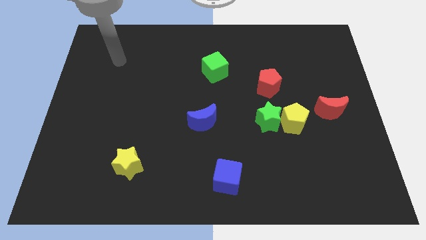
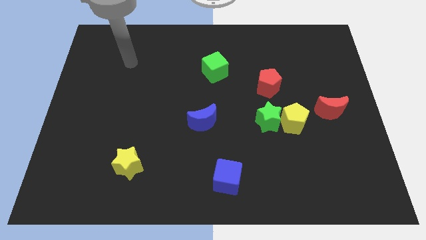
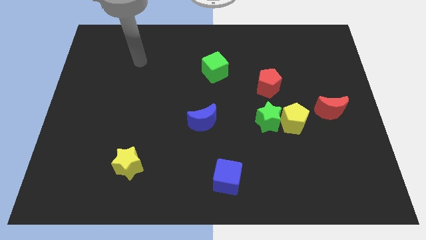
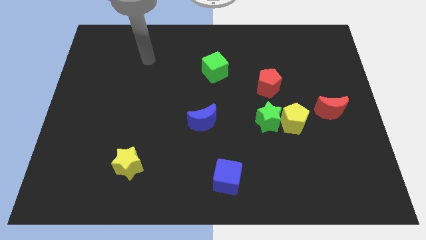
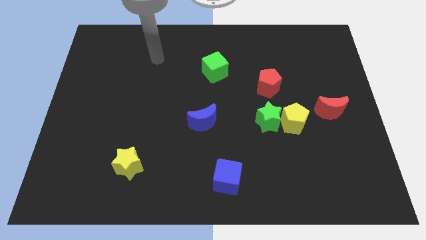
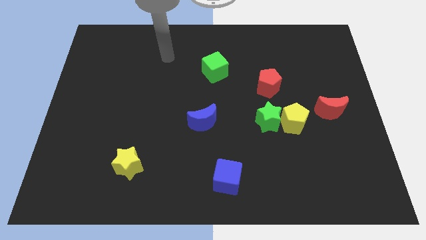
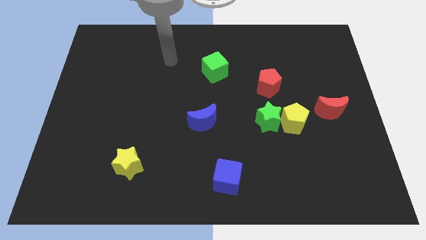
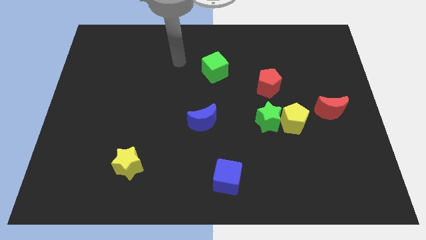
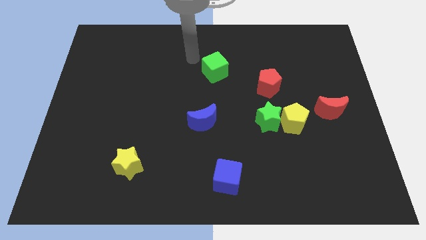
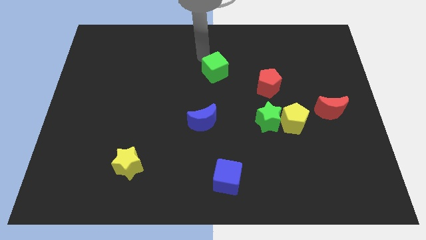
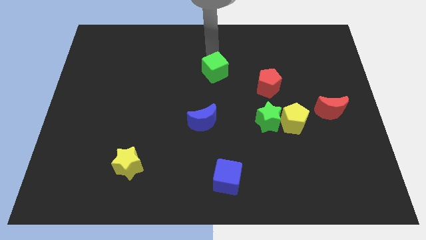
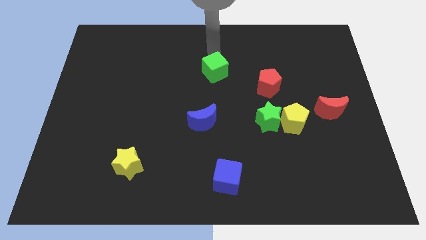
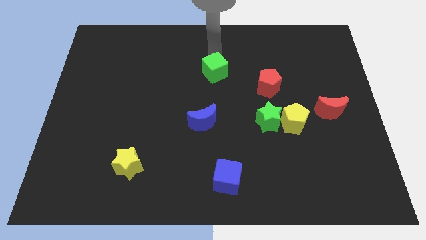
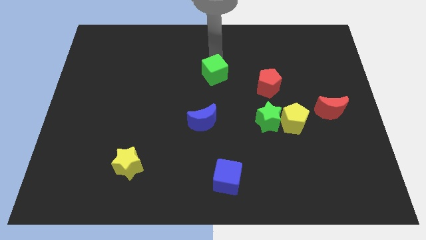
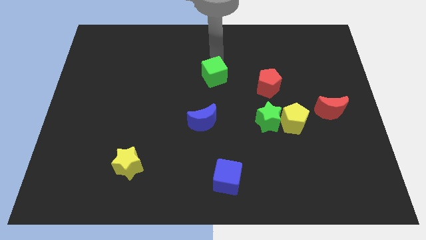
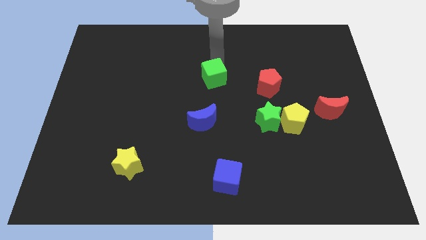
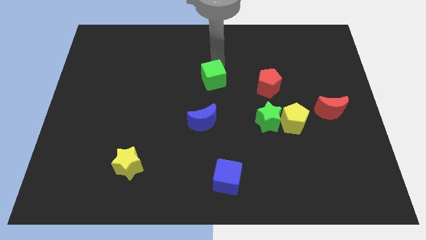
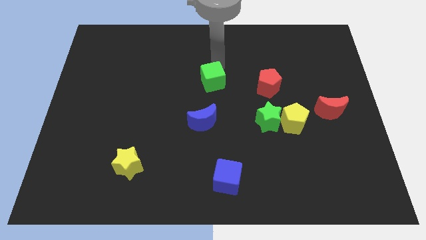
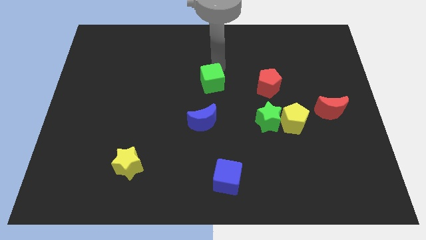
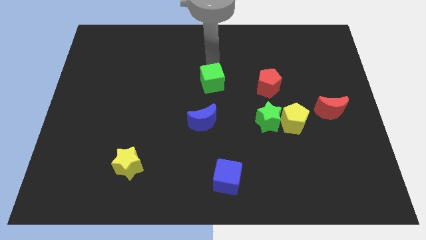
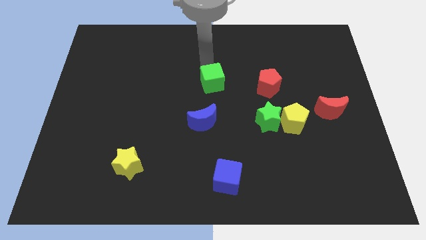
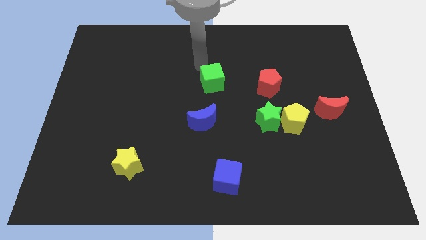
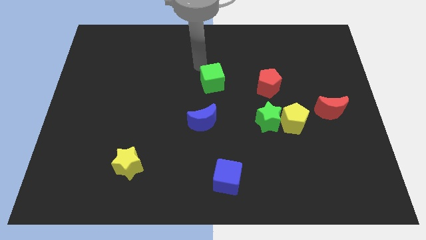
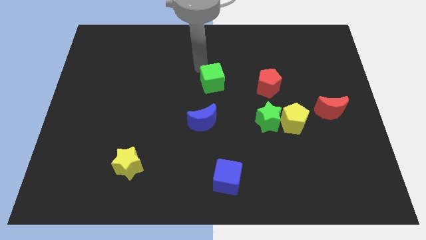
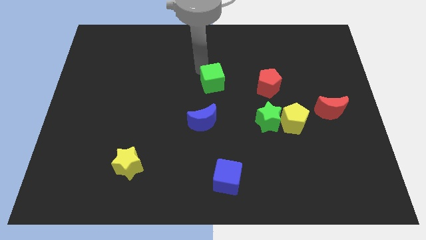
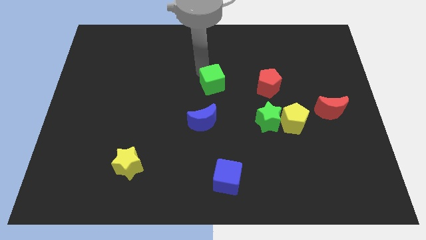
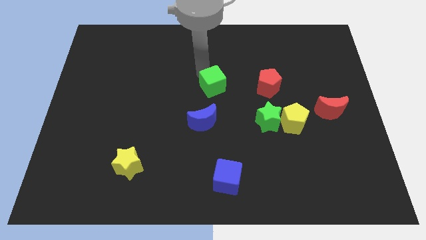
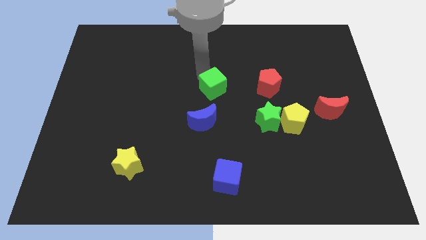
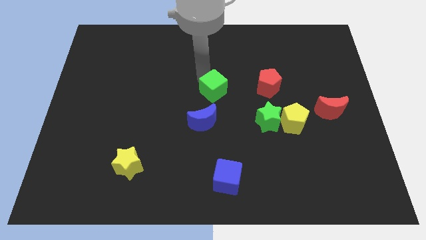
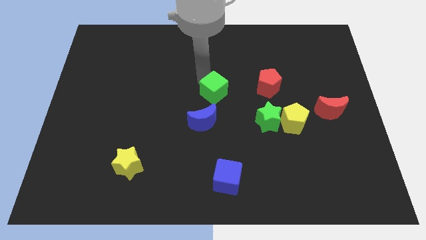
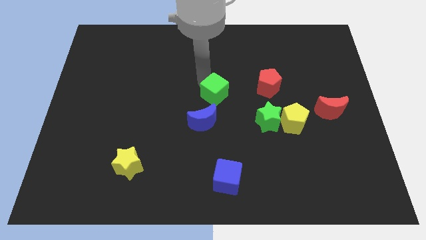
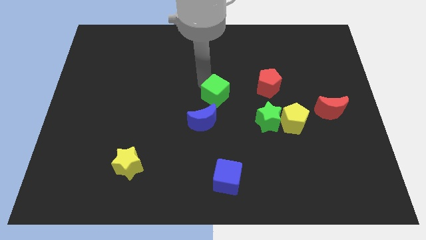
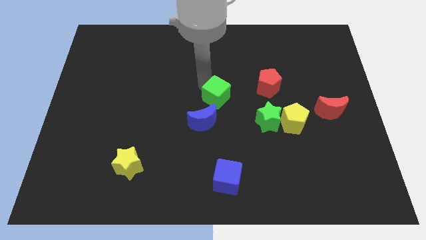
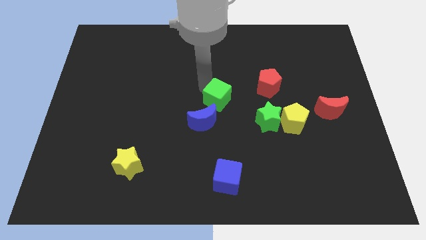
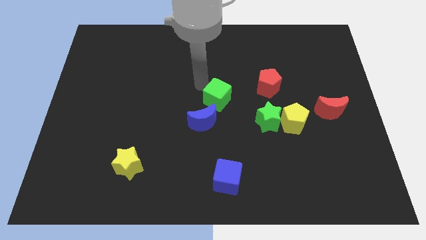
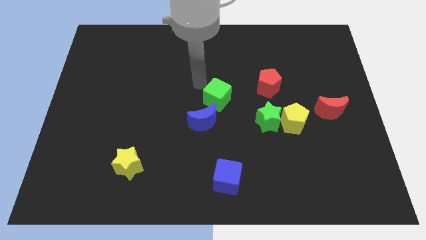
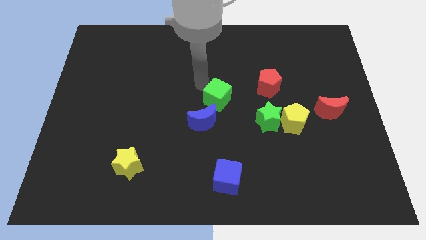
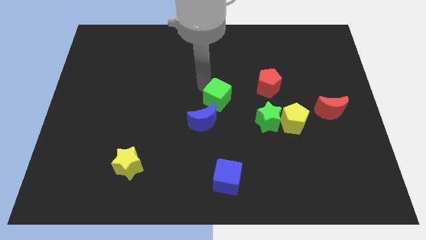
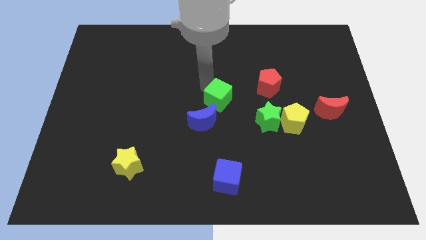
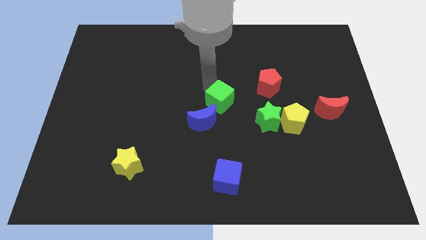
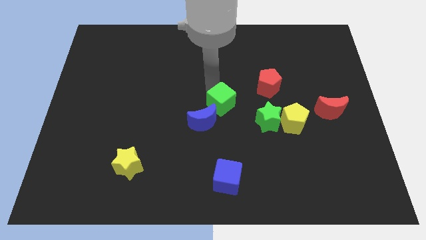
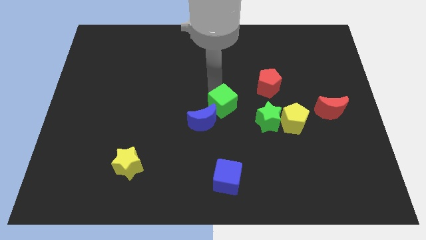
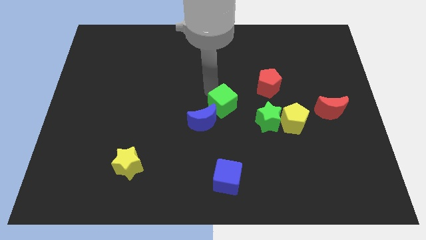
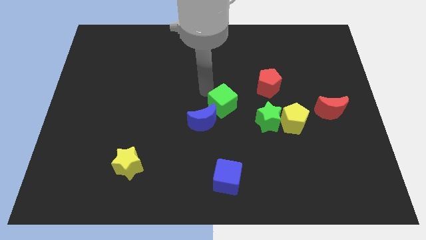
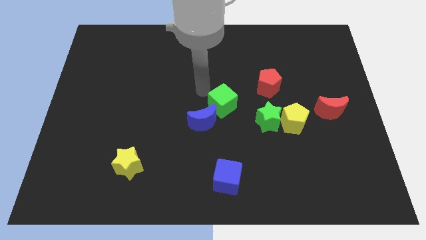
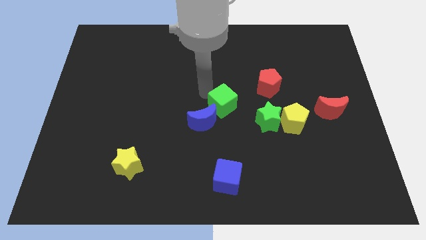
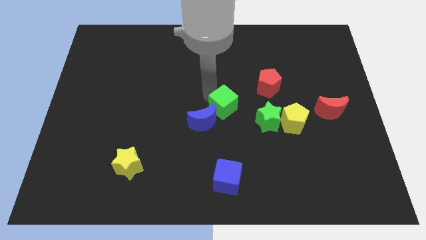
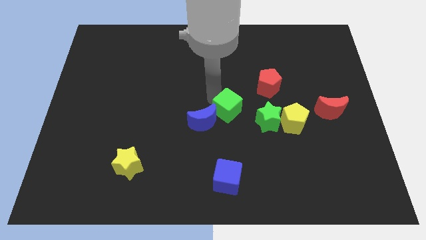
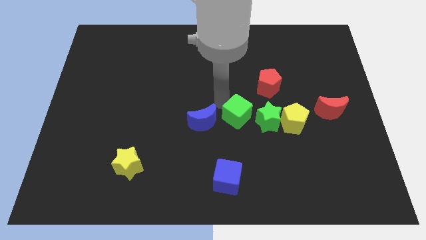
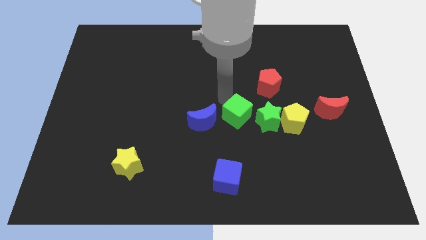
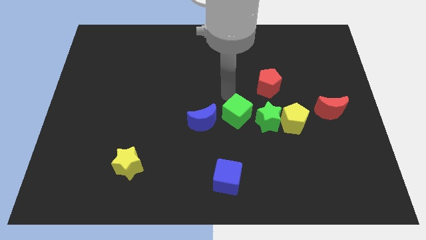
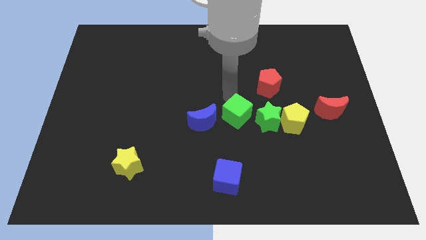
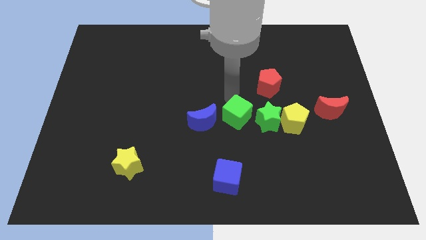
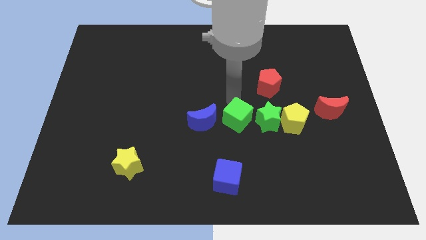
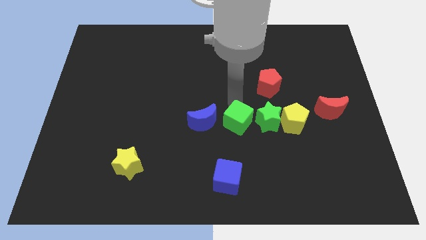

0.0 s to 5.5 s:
push the green cube diagonally down and to the left of the green star

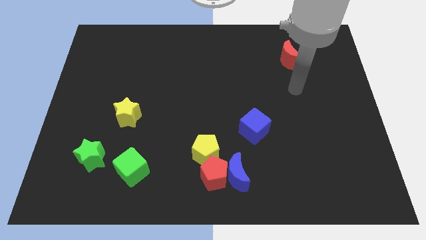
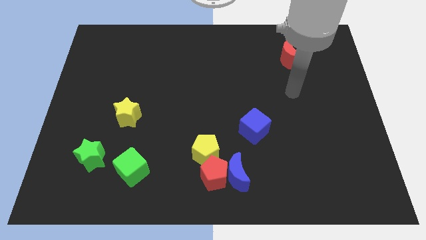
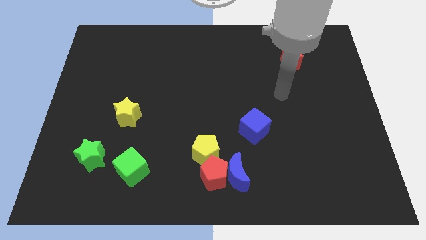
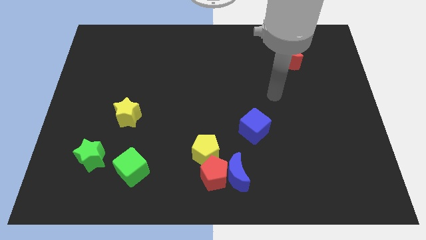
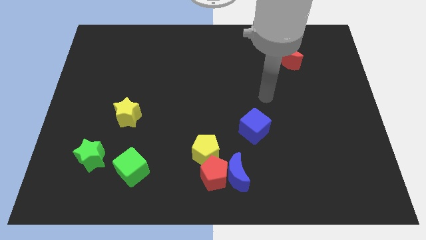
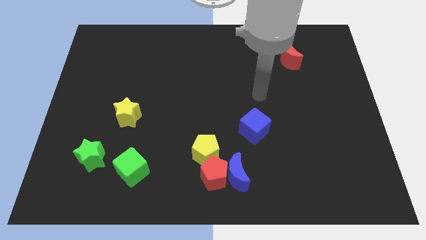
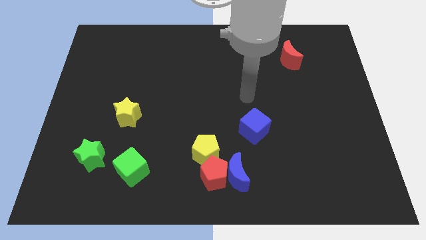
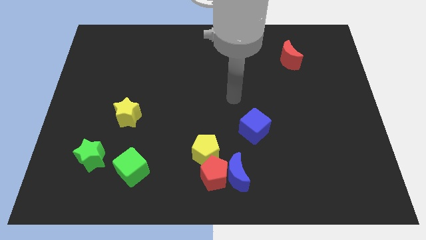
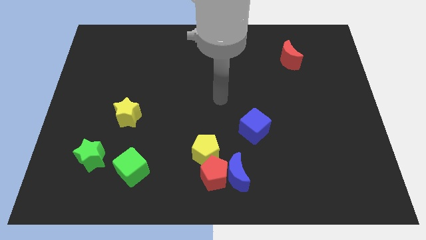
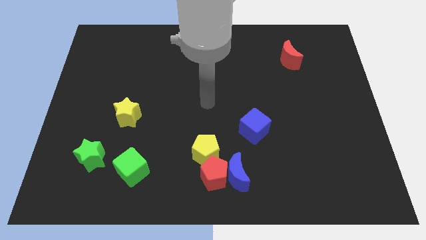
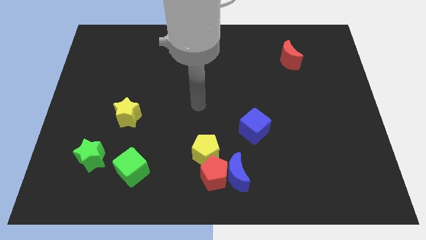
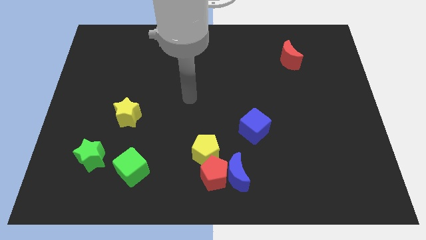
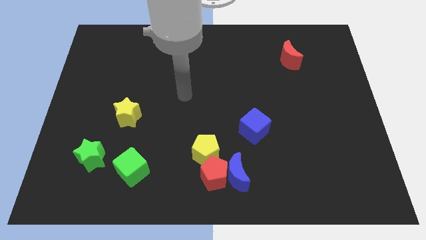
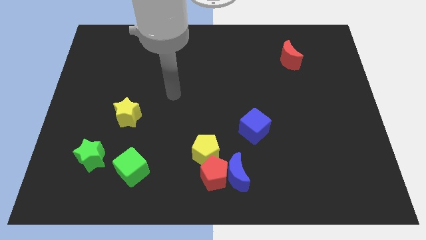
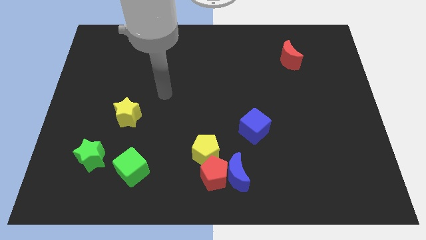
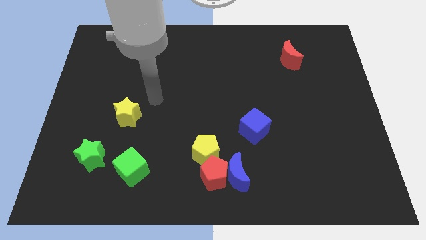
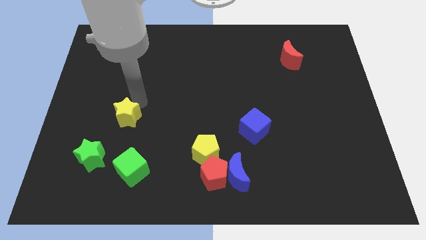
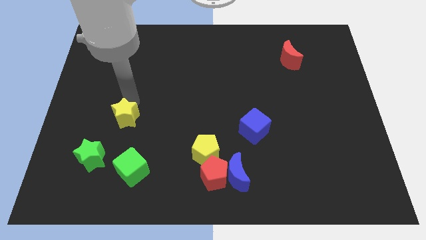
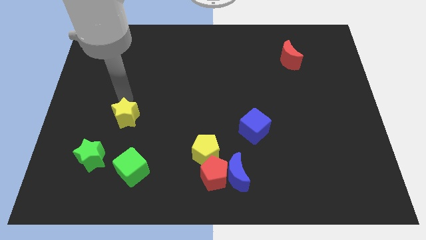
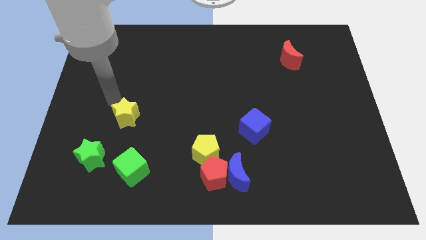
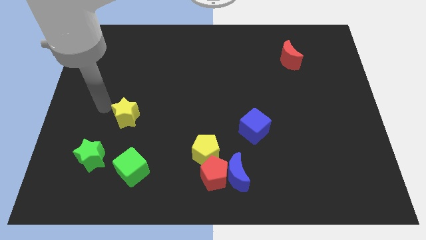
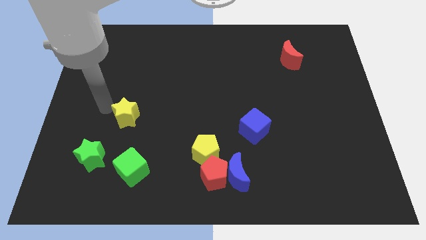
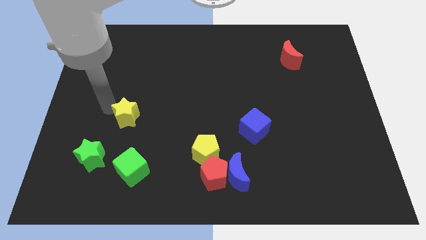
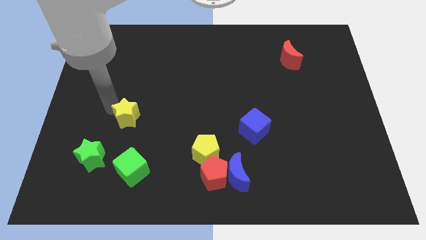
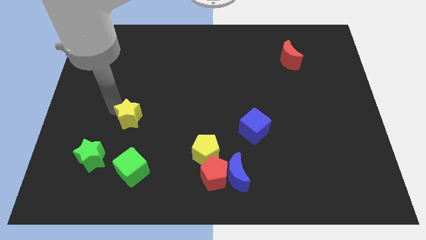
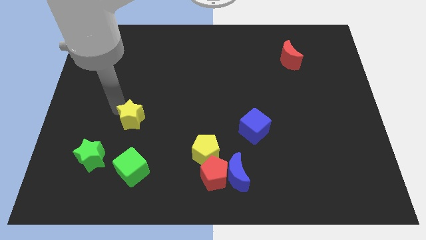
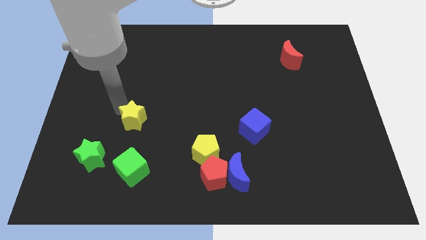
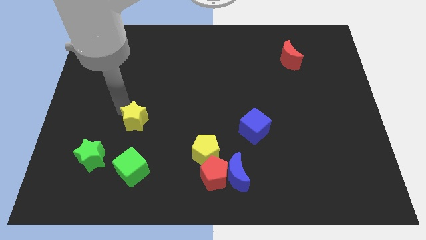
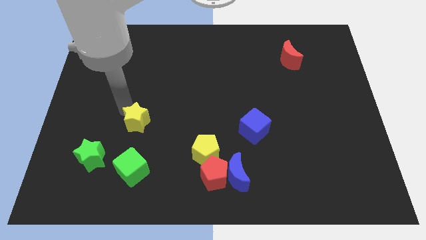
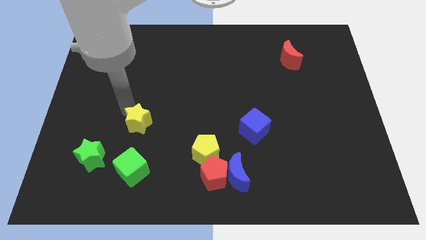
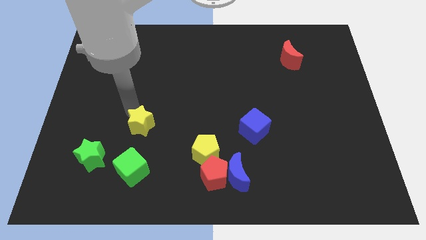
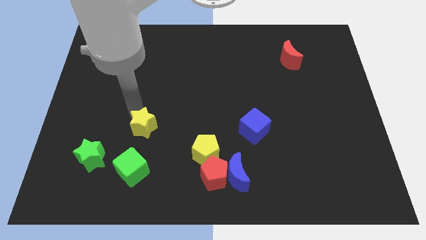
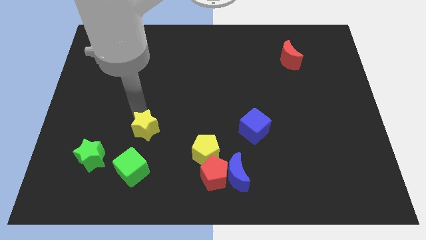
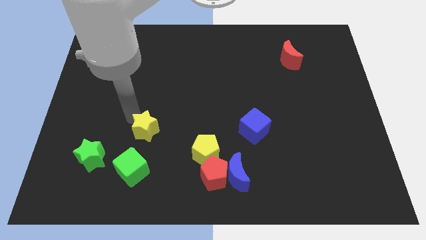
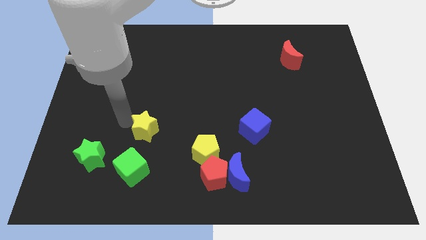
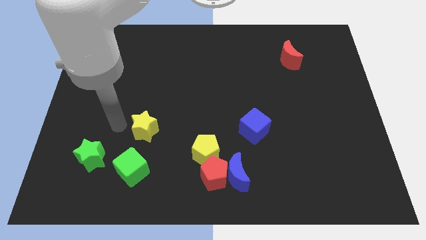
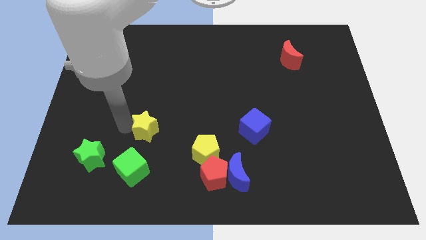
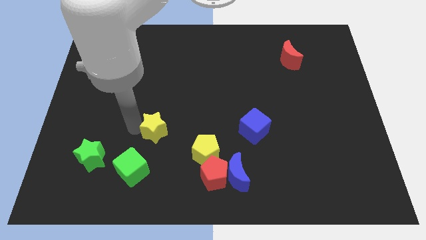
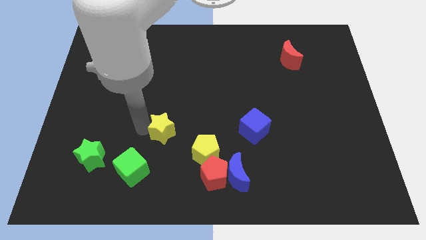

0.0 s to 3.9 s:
put the yellow star to the top left of the yellow pentagon
